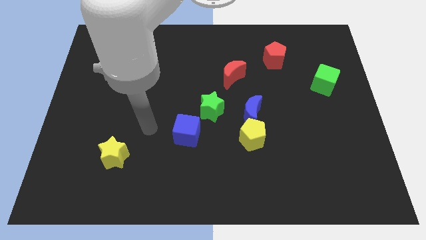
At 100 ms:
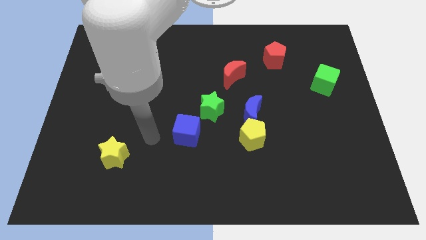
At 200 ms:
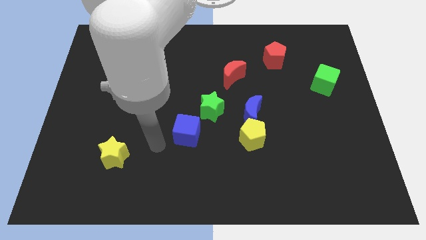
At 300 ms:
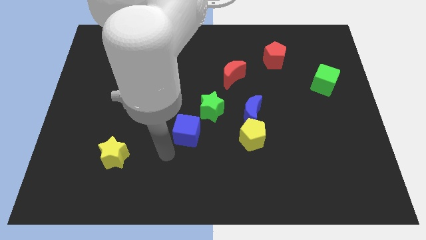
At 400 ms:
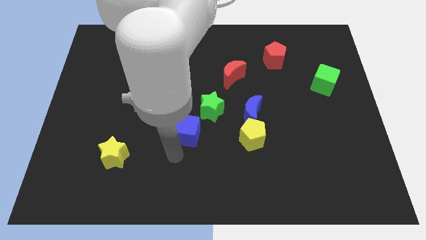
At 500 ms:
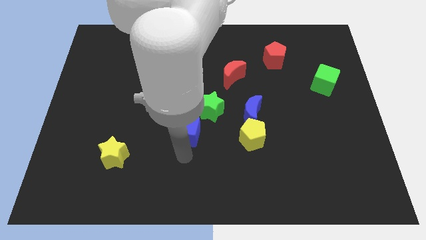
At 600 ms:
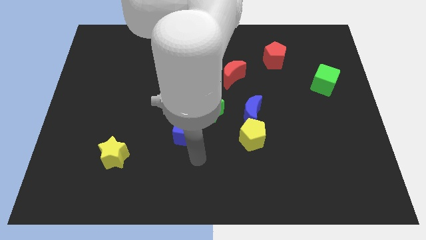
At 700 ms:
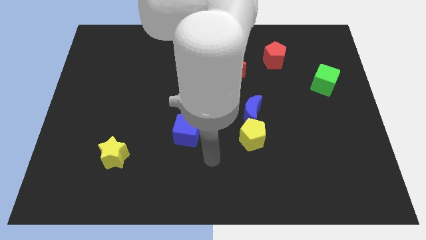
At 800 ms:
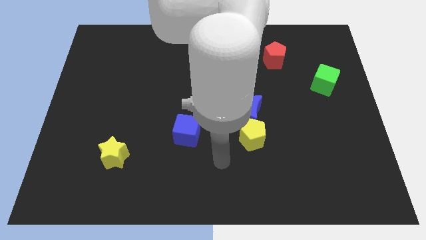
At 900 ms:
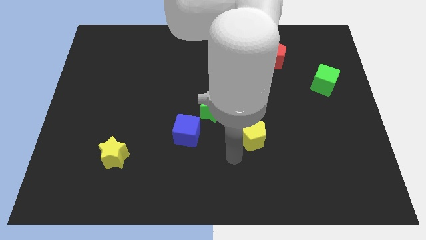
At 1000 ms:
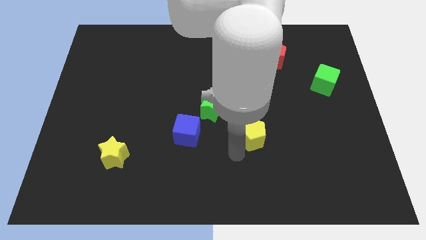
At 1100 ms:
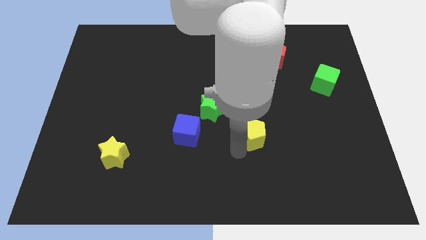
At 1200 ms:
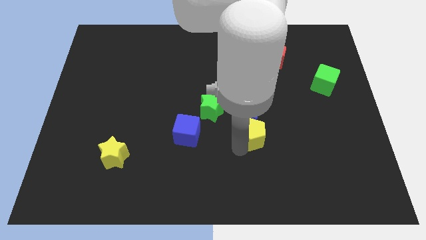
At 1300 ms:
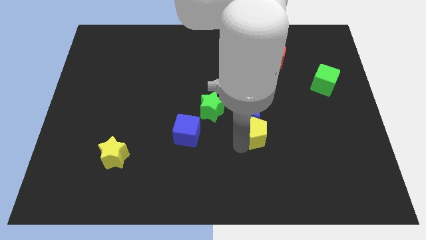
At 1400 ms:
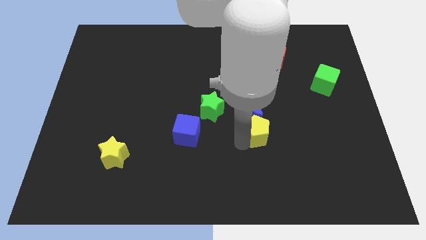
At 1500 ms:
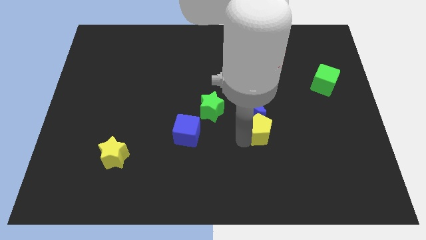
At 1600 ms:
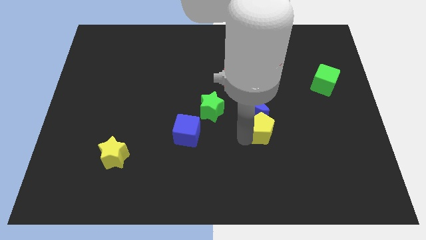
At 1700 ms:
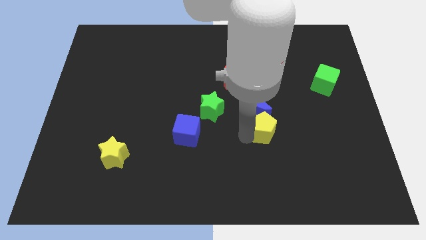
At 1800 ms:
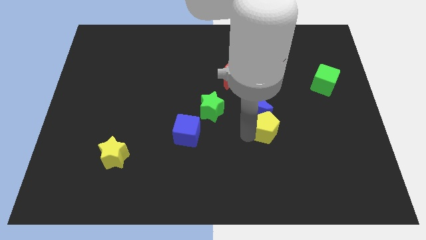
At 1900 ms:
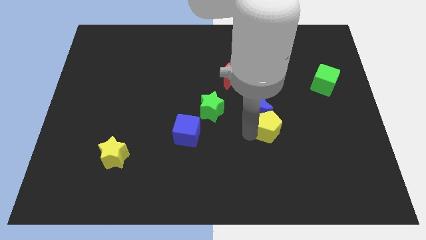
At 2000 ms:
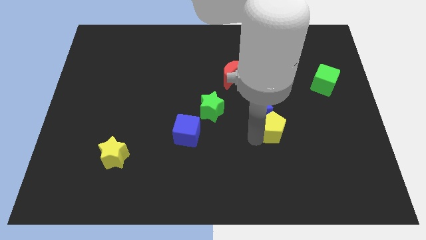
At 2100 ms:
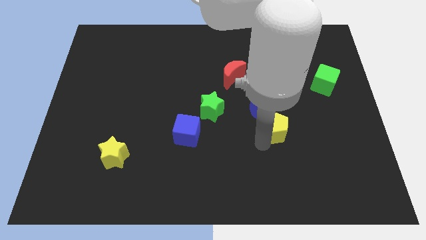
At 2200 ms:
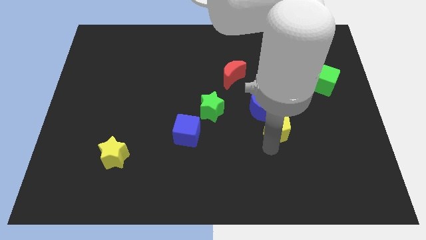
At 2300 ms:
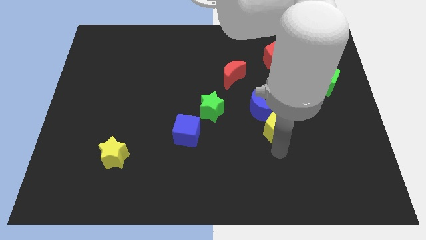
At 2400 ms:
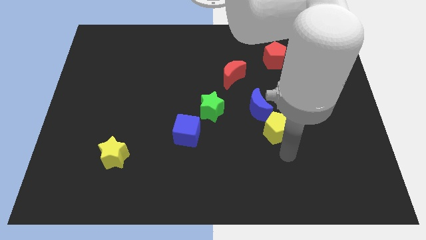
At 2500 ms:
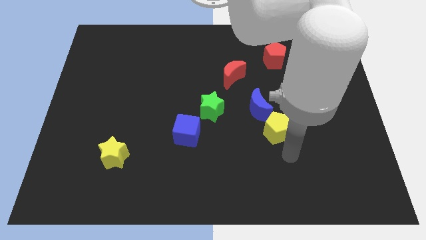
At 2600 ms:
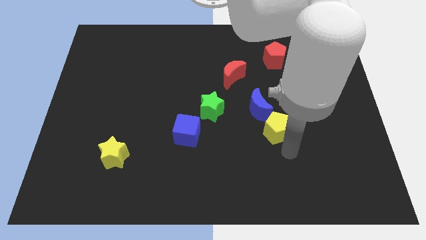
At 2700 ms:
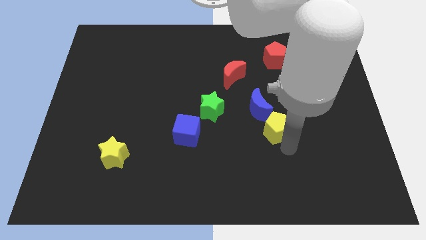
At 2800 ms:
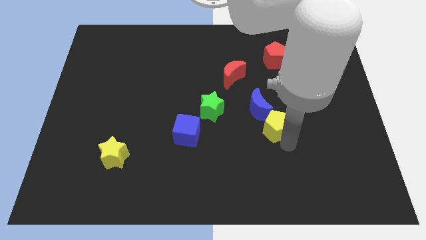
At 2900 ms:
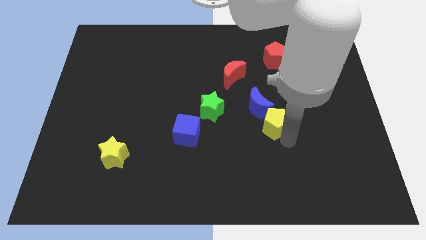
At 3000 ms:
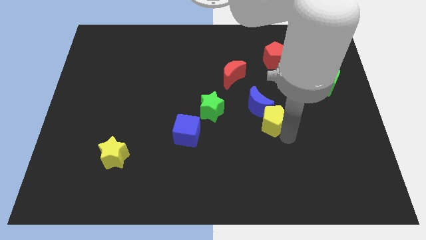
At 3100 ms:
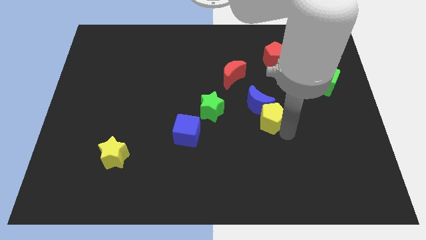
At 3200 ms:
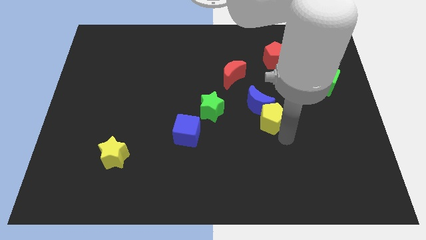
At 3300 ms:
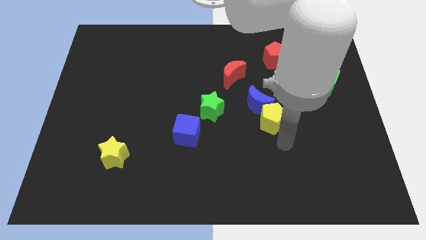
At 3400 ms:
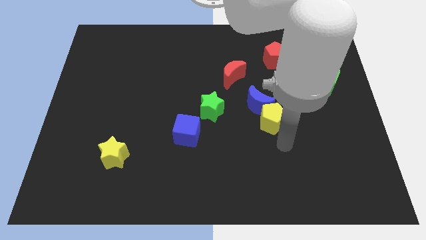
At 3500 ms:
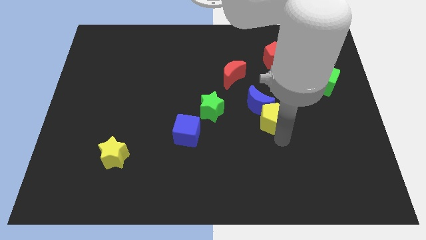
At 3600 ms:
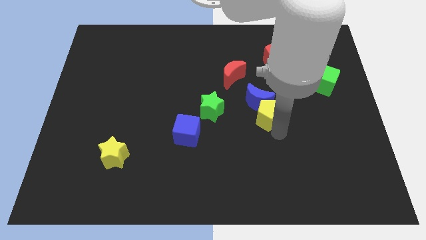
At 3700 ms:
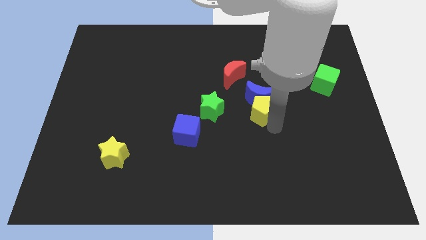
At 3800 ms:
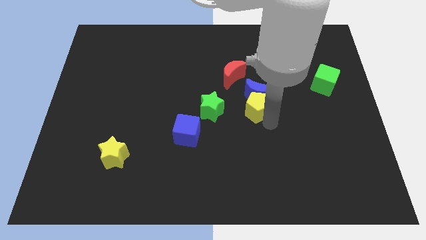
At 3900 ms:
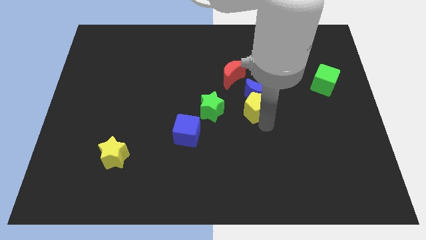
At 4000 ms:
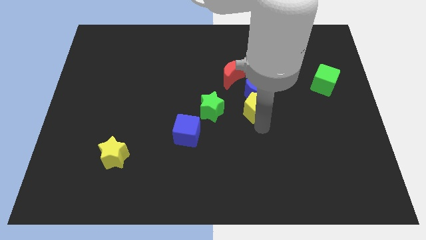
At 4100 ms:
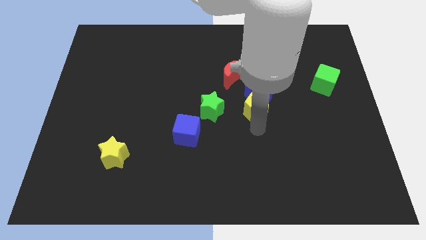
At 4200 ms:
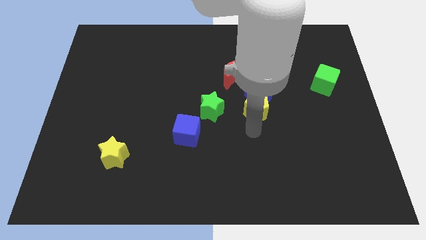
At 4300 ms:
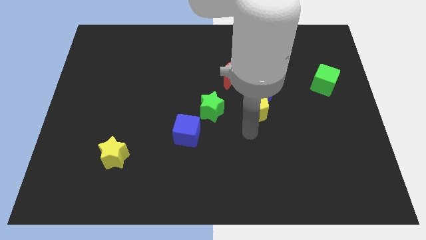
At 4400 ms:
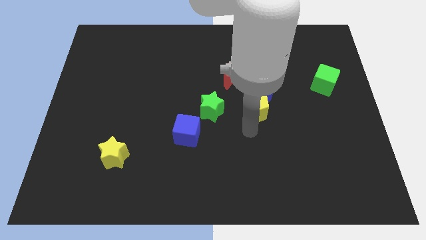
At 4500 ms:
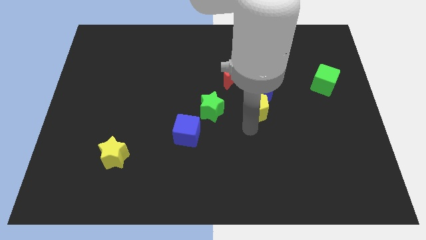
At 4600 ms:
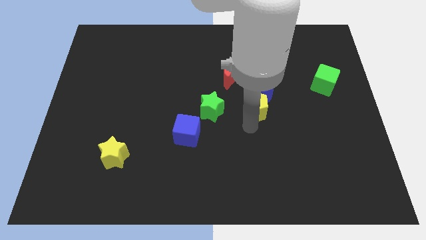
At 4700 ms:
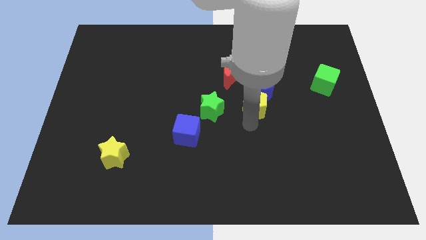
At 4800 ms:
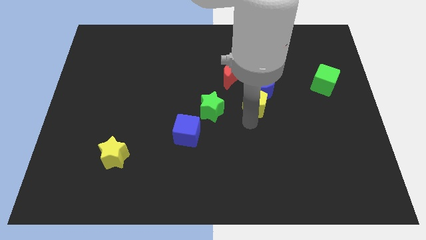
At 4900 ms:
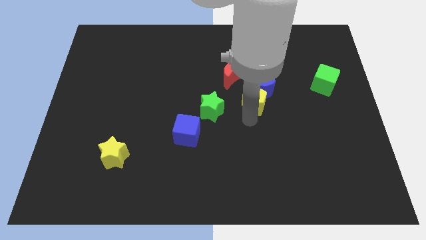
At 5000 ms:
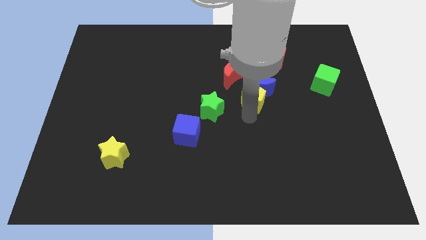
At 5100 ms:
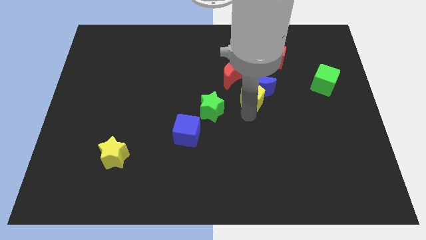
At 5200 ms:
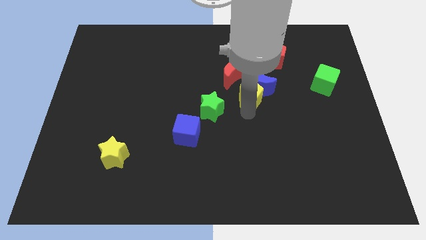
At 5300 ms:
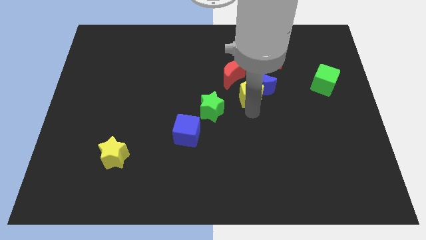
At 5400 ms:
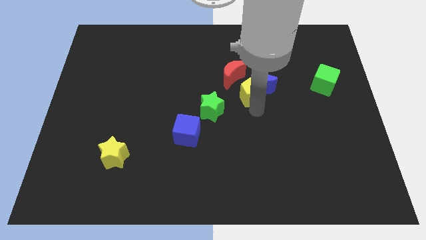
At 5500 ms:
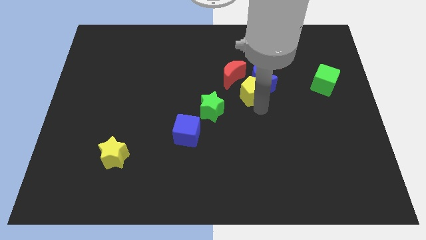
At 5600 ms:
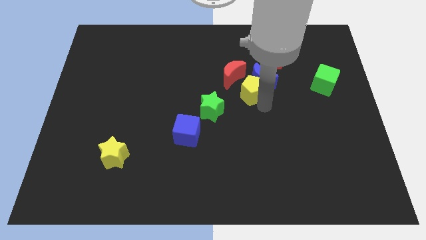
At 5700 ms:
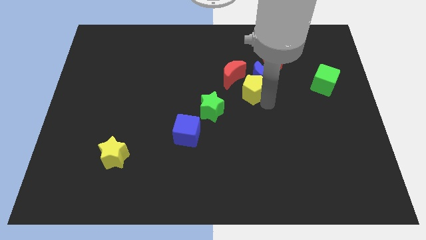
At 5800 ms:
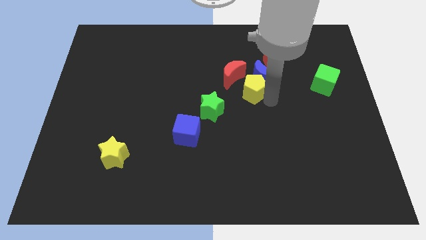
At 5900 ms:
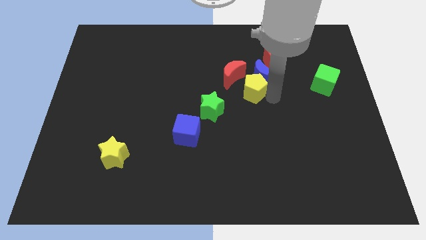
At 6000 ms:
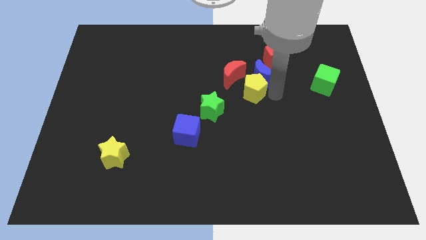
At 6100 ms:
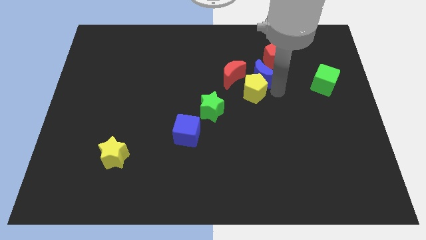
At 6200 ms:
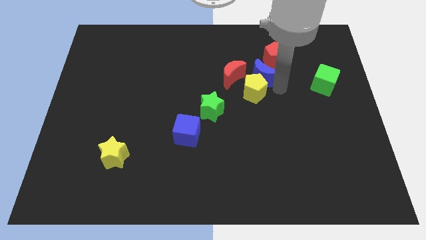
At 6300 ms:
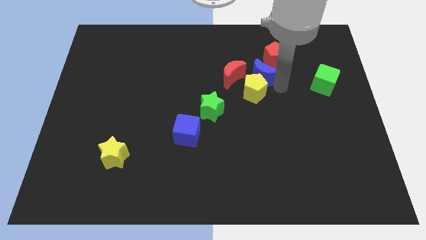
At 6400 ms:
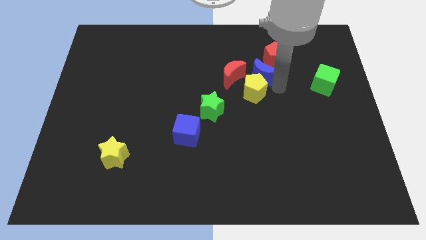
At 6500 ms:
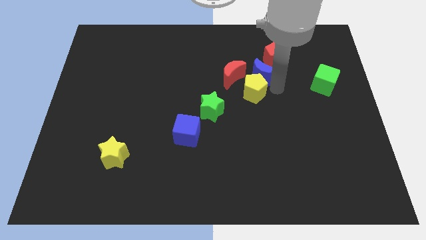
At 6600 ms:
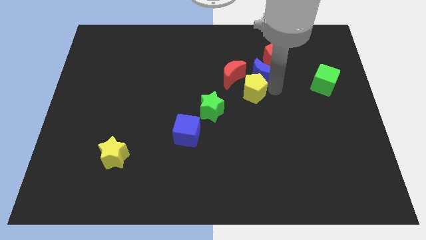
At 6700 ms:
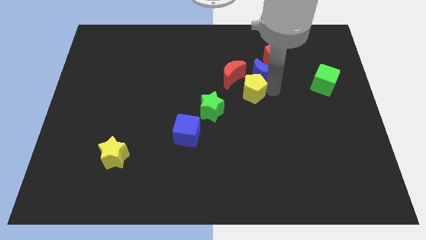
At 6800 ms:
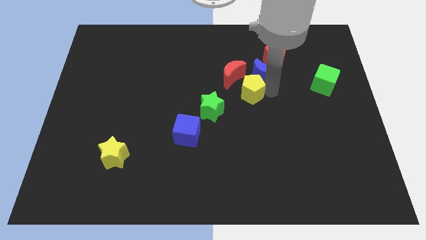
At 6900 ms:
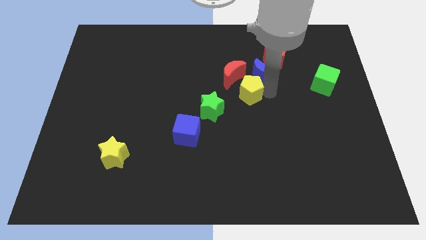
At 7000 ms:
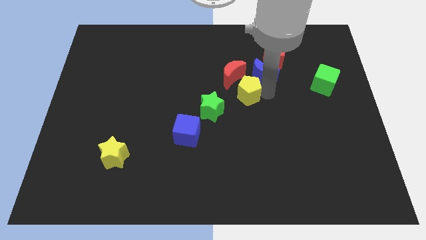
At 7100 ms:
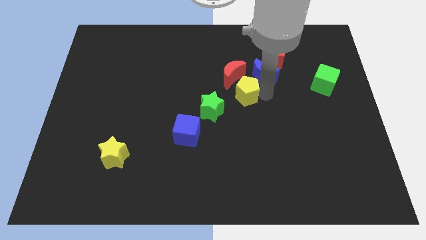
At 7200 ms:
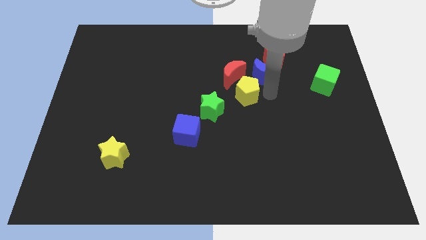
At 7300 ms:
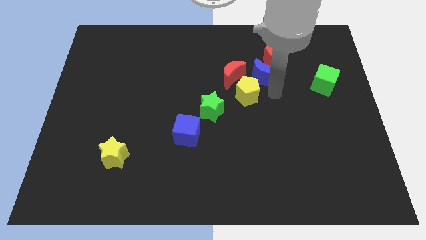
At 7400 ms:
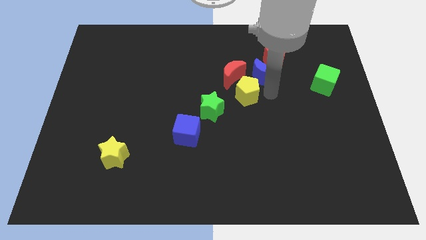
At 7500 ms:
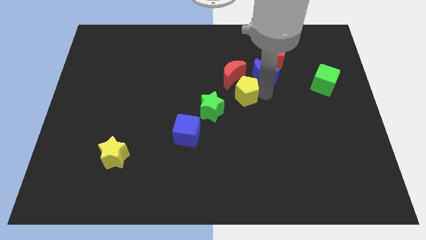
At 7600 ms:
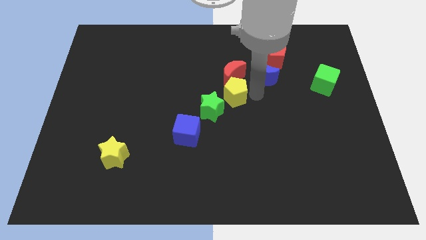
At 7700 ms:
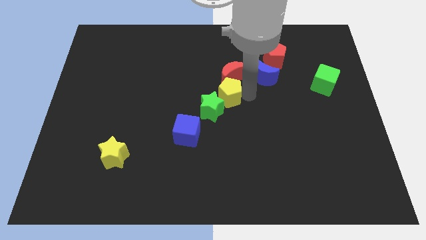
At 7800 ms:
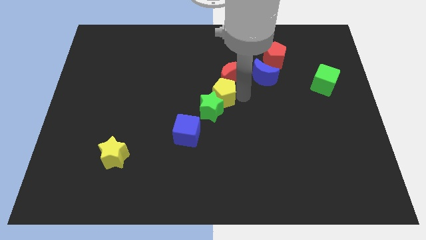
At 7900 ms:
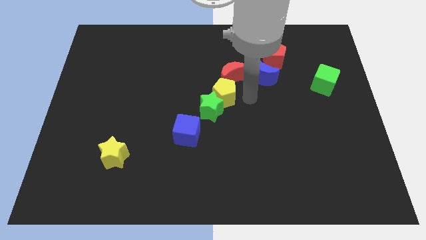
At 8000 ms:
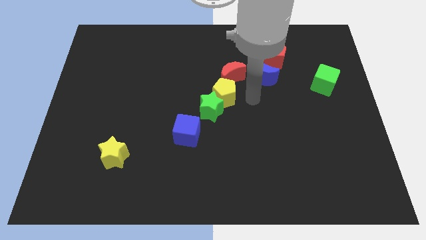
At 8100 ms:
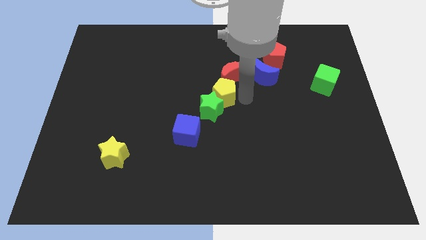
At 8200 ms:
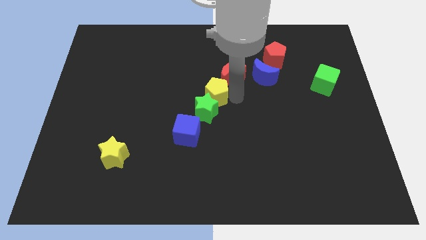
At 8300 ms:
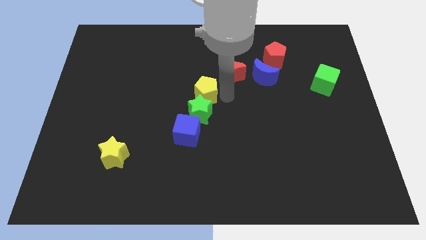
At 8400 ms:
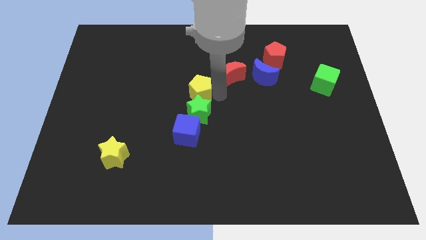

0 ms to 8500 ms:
move the yellow pentagon to the top left side of the green star
